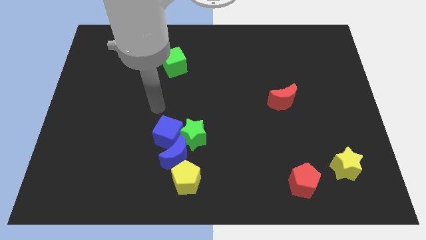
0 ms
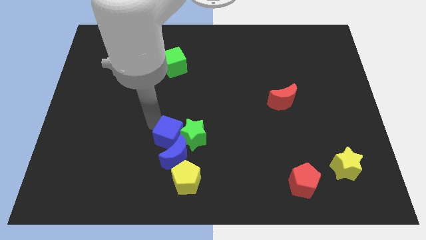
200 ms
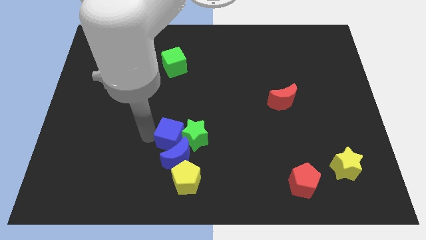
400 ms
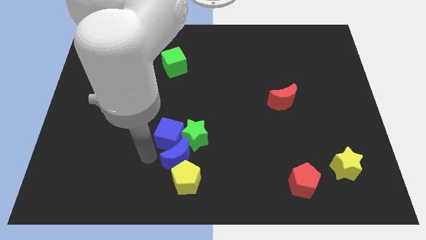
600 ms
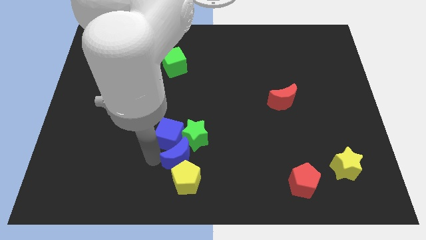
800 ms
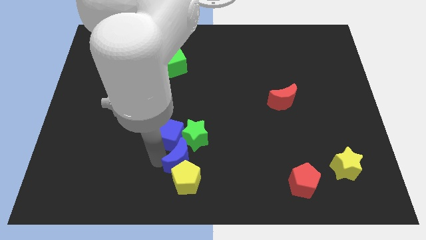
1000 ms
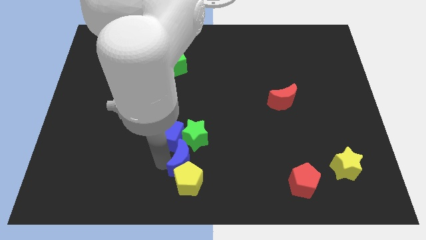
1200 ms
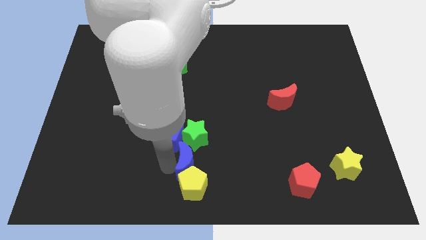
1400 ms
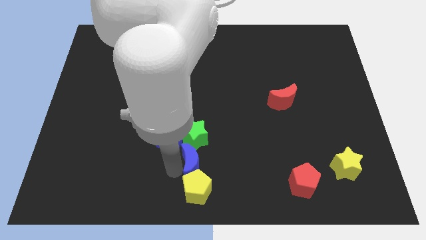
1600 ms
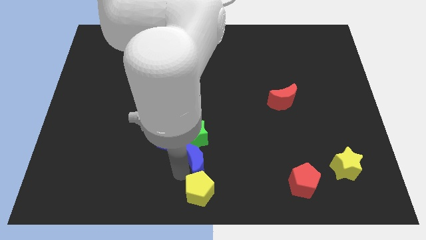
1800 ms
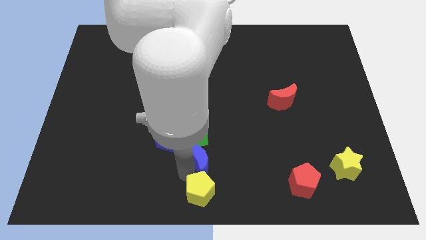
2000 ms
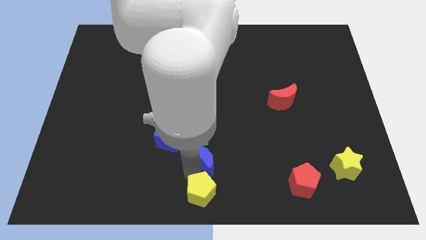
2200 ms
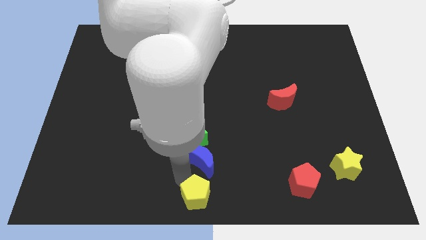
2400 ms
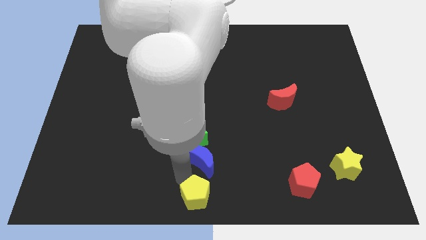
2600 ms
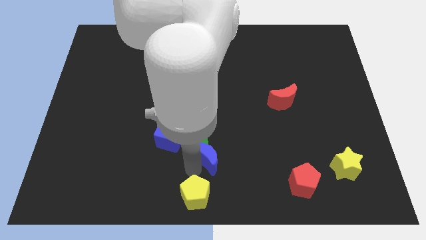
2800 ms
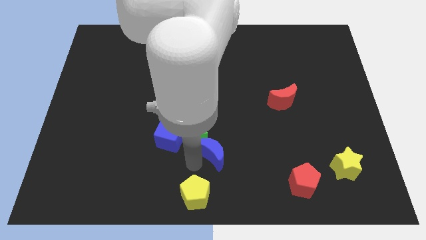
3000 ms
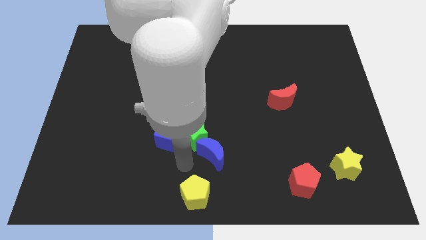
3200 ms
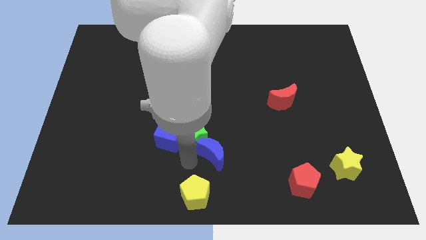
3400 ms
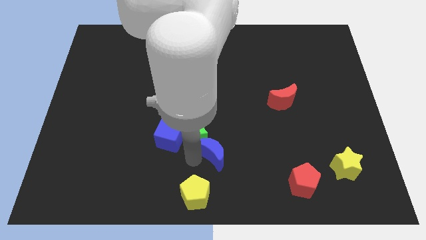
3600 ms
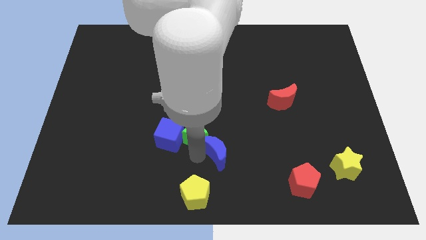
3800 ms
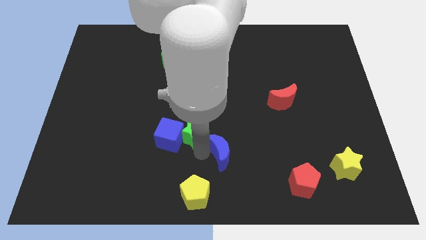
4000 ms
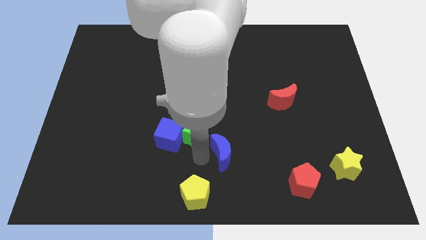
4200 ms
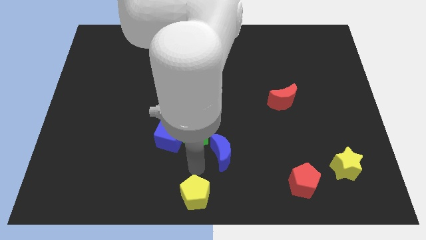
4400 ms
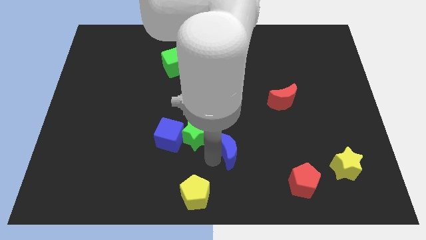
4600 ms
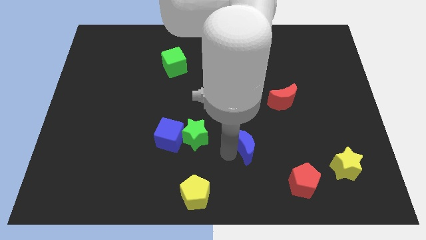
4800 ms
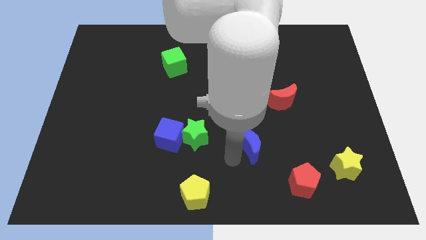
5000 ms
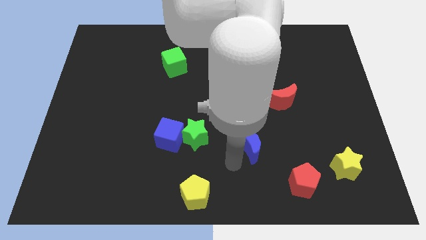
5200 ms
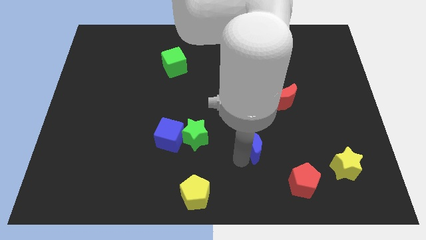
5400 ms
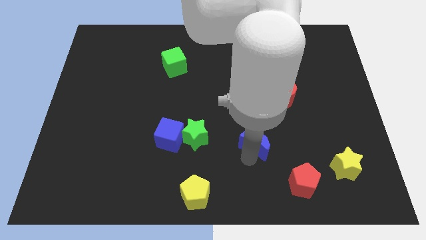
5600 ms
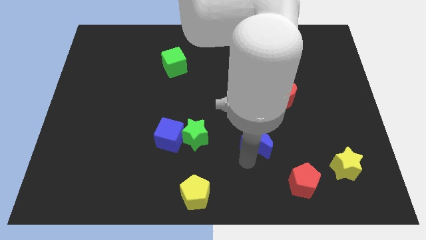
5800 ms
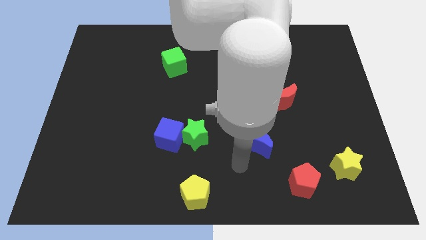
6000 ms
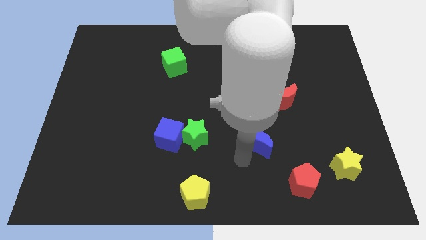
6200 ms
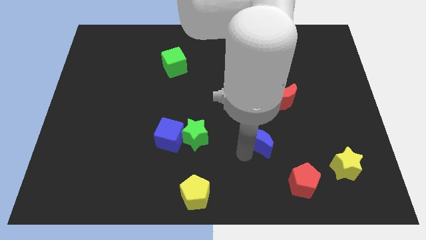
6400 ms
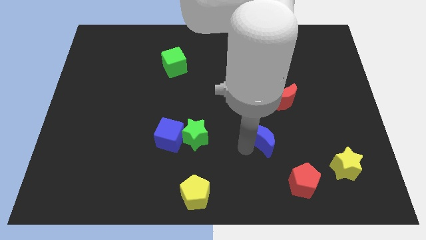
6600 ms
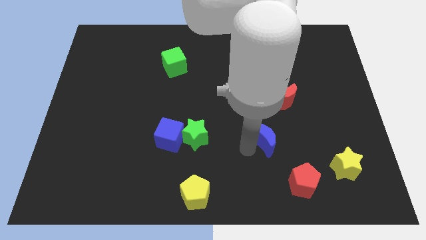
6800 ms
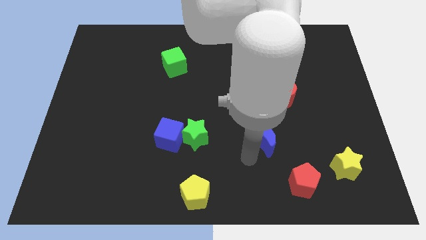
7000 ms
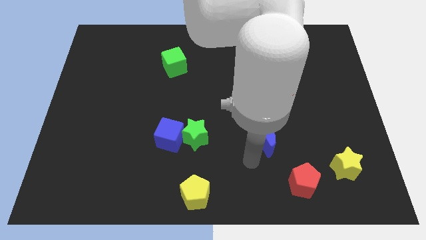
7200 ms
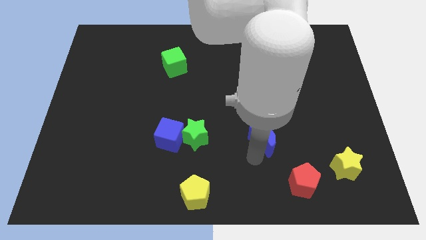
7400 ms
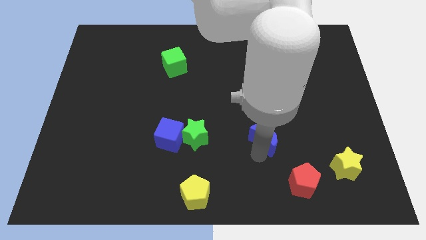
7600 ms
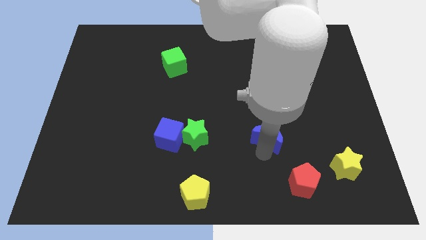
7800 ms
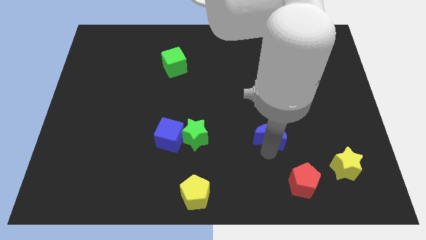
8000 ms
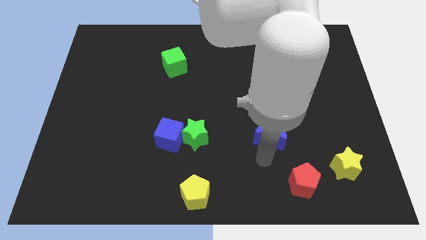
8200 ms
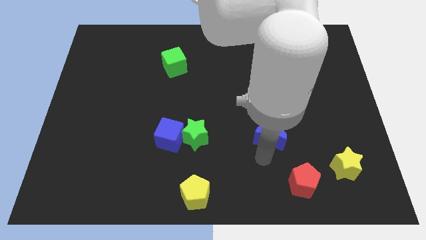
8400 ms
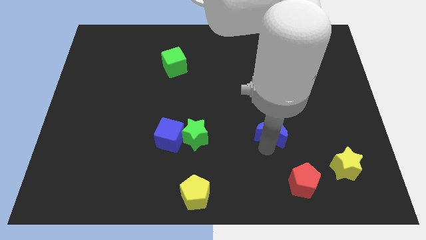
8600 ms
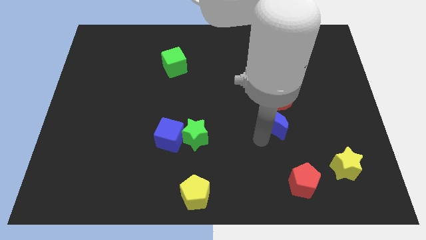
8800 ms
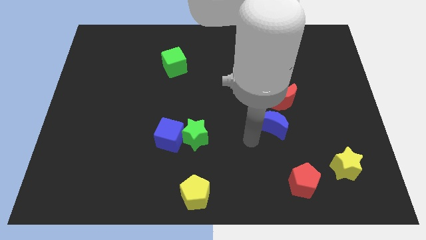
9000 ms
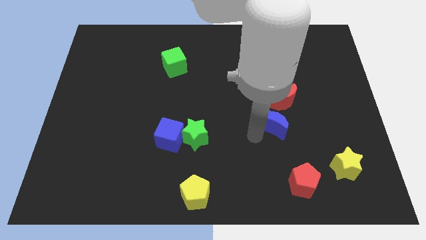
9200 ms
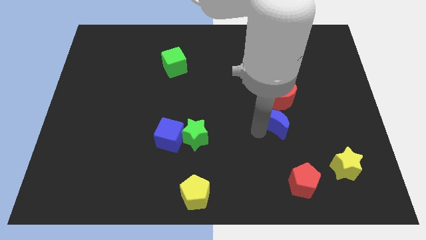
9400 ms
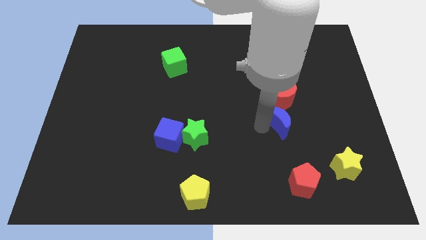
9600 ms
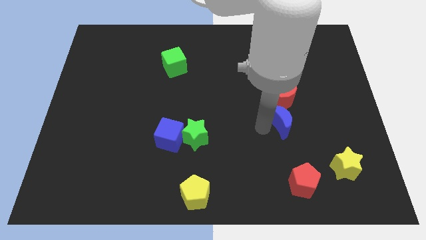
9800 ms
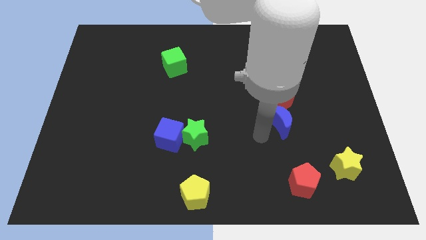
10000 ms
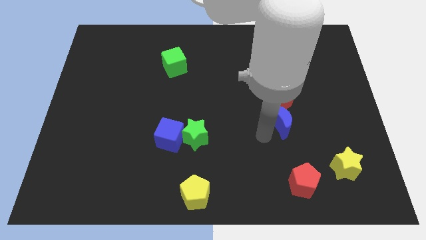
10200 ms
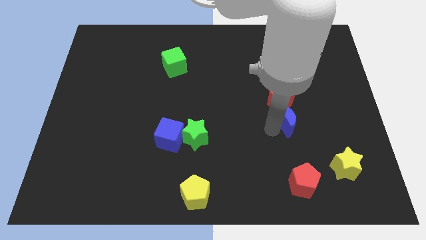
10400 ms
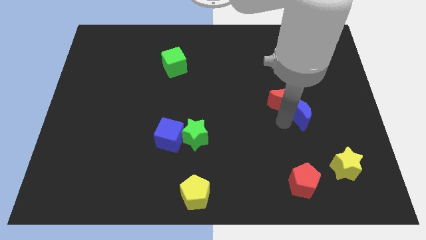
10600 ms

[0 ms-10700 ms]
put the blue moon right of the red moon

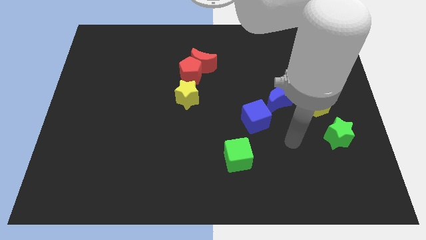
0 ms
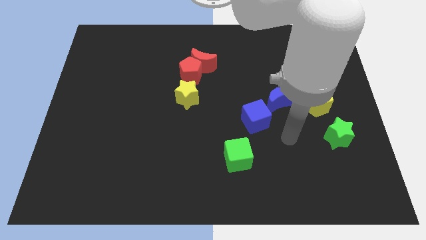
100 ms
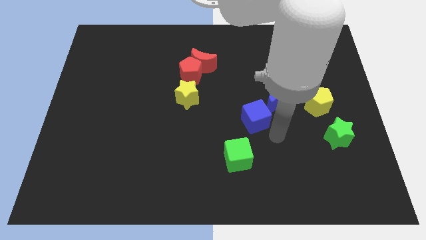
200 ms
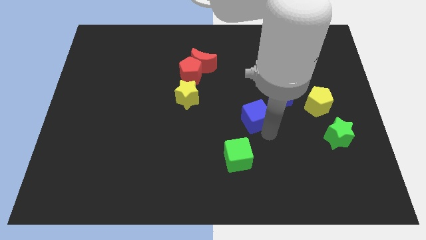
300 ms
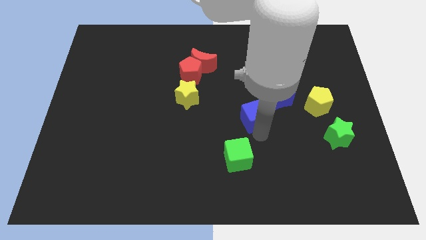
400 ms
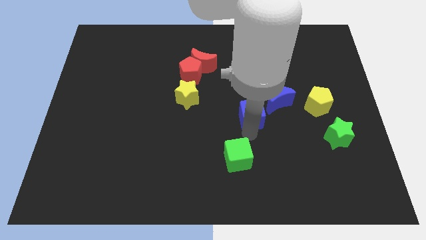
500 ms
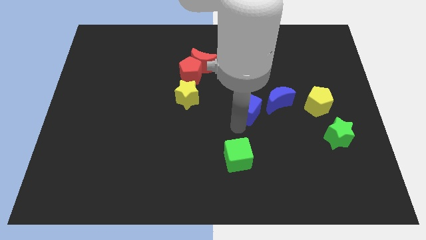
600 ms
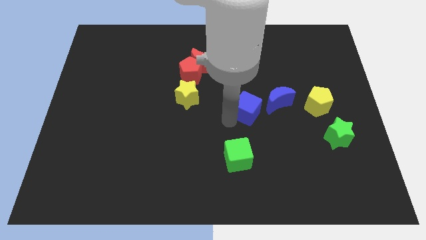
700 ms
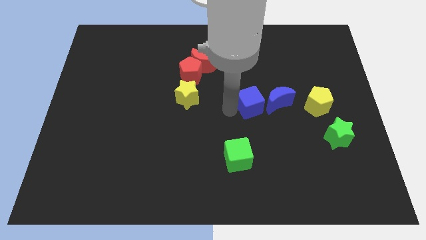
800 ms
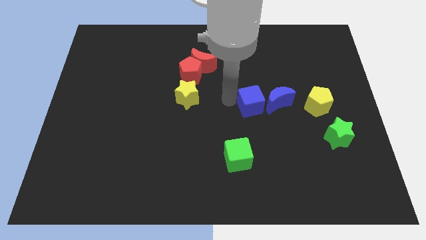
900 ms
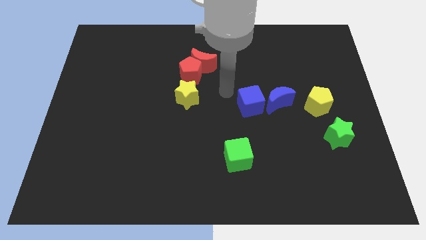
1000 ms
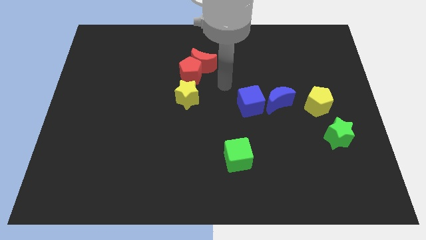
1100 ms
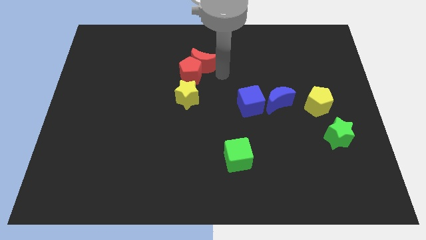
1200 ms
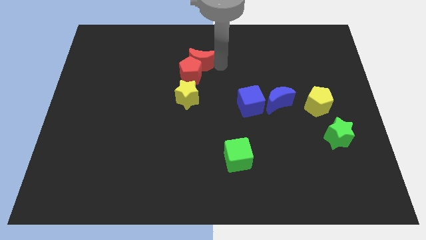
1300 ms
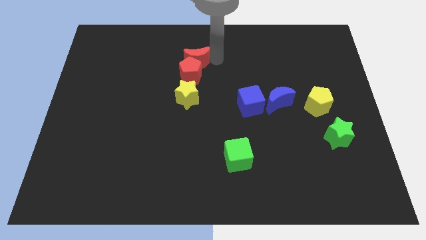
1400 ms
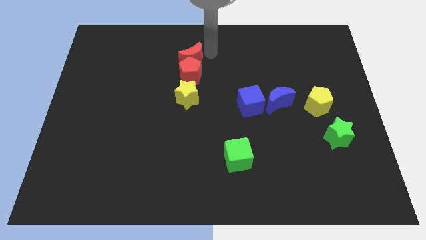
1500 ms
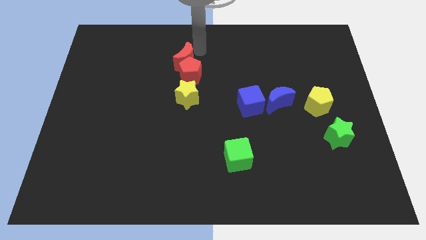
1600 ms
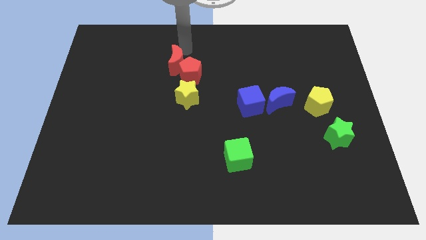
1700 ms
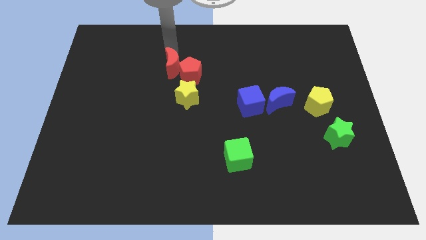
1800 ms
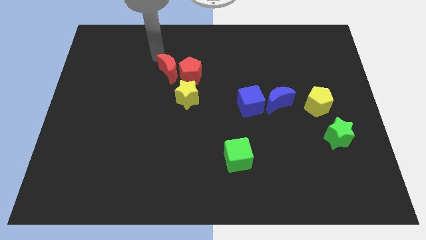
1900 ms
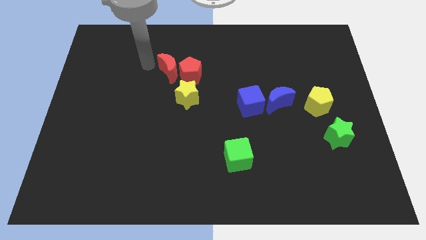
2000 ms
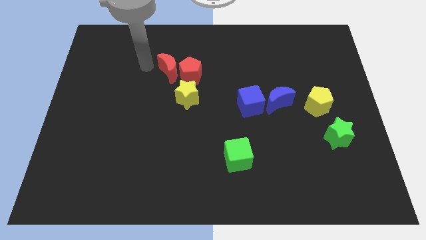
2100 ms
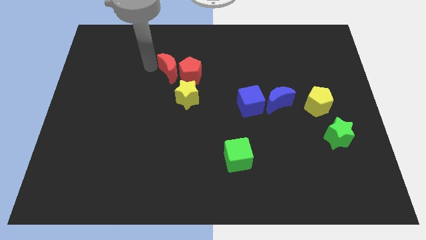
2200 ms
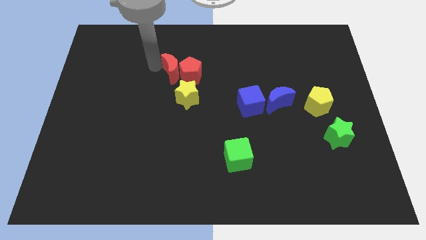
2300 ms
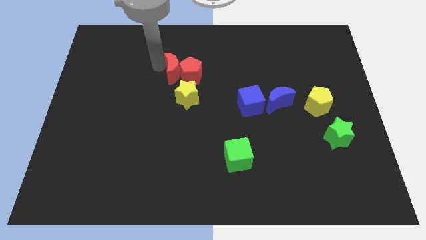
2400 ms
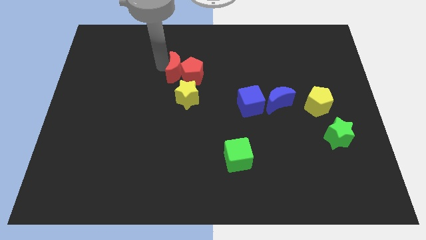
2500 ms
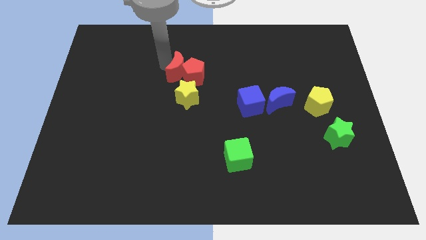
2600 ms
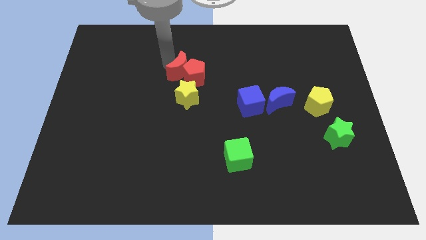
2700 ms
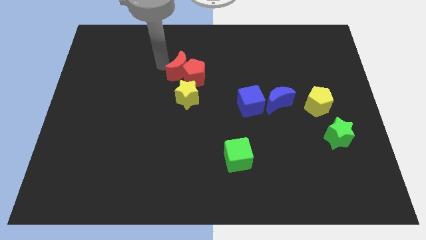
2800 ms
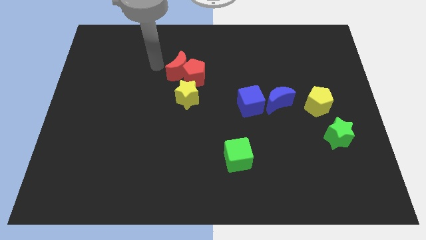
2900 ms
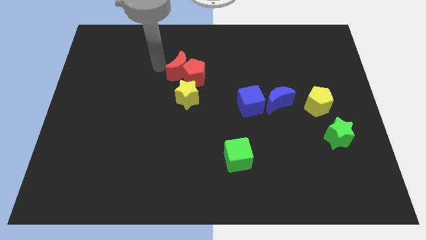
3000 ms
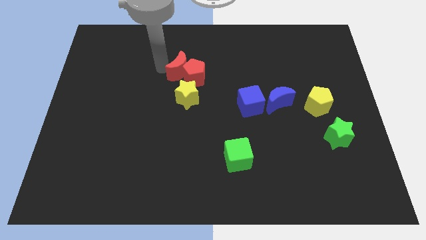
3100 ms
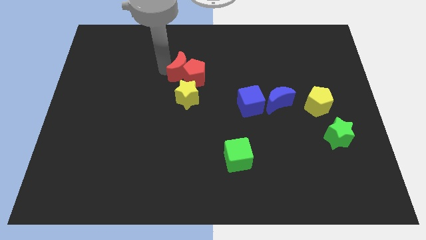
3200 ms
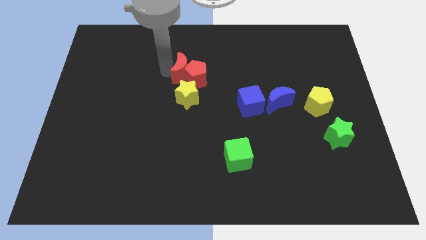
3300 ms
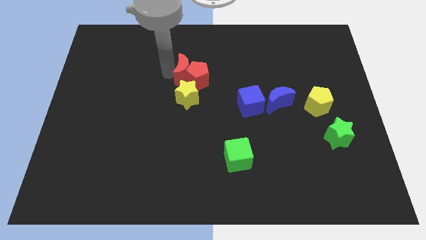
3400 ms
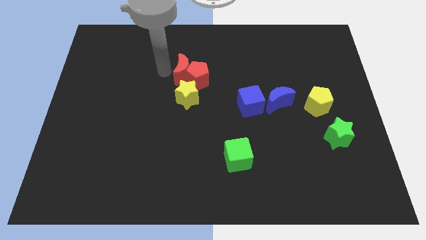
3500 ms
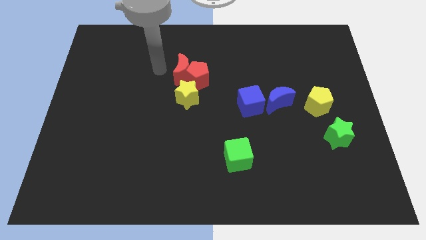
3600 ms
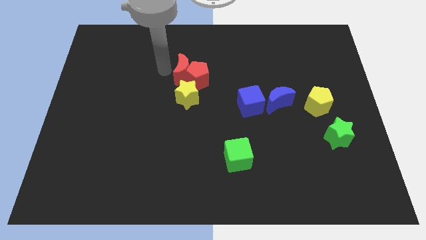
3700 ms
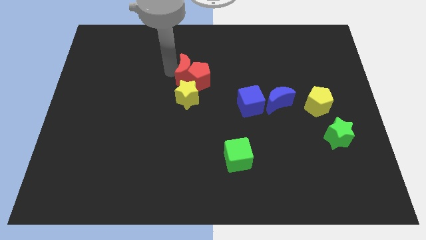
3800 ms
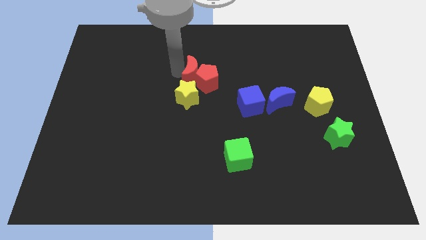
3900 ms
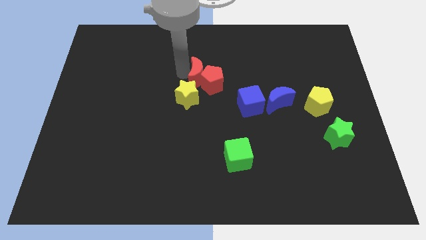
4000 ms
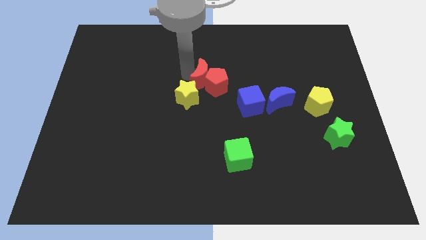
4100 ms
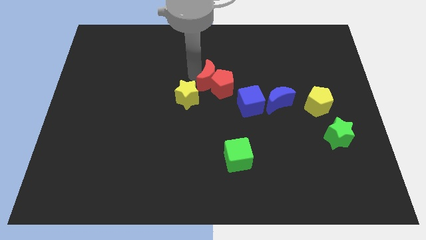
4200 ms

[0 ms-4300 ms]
move the red moon to the top left side of the blue cube
